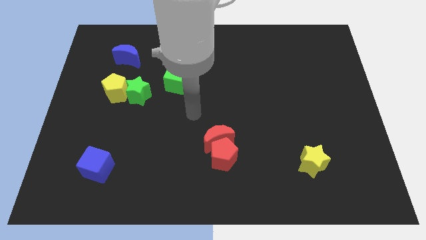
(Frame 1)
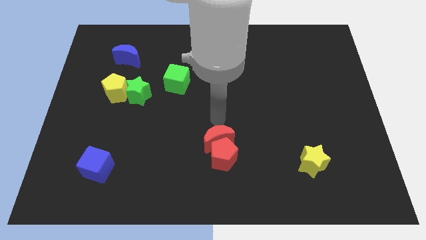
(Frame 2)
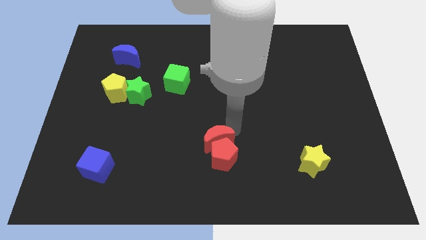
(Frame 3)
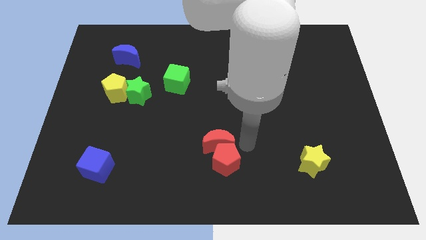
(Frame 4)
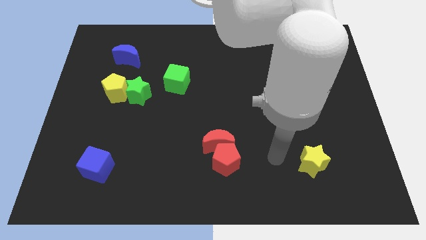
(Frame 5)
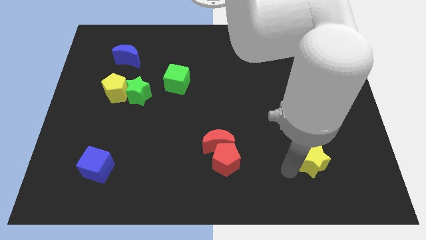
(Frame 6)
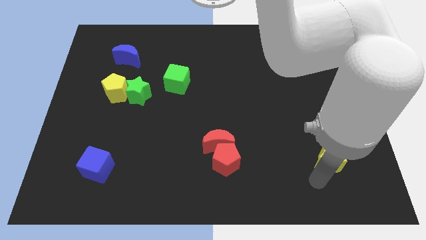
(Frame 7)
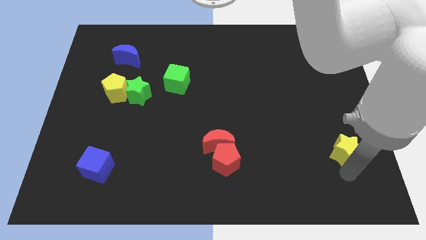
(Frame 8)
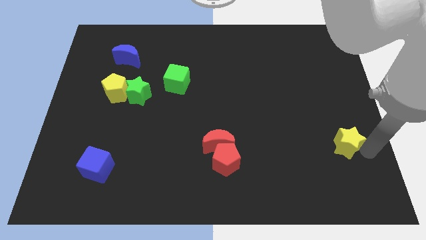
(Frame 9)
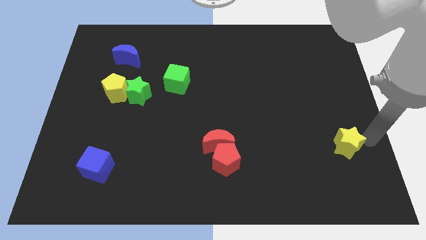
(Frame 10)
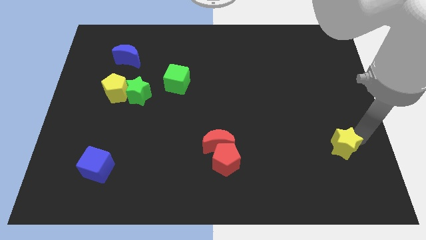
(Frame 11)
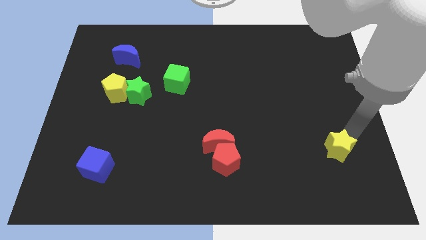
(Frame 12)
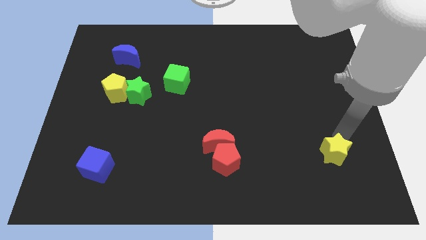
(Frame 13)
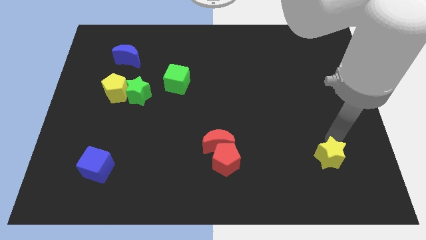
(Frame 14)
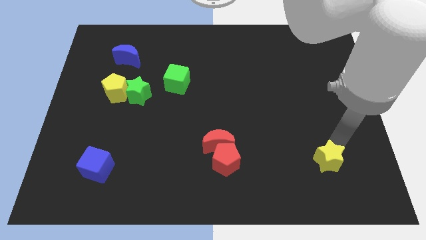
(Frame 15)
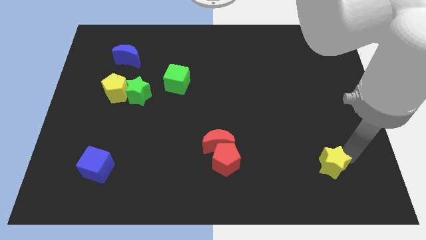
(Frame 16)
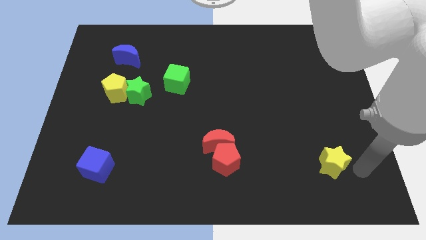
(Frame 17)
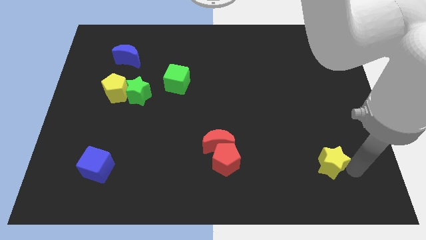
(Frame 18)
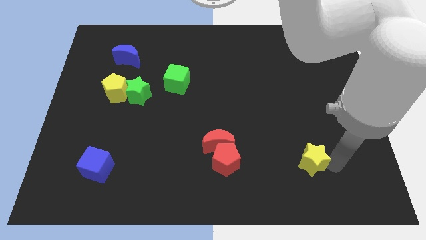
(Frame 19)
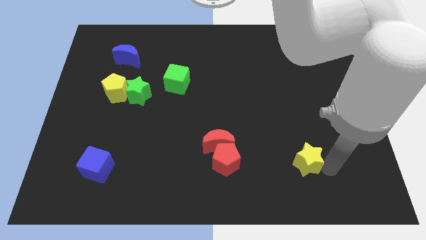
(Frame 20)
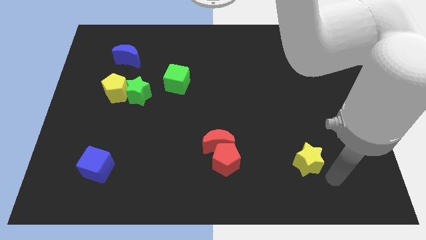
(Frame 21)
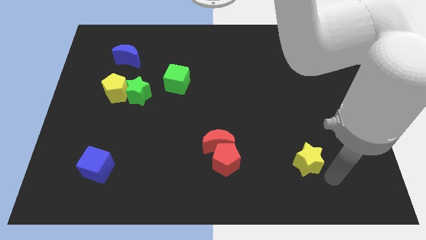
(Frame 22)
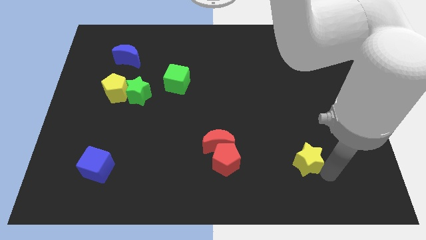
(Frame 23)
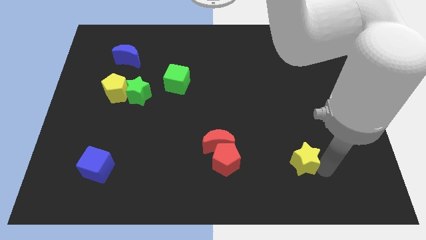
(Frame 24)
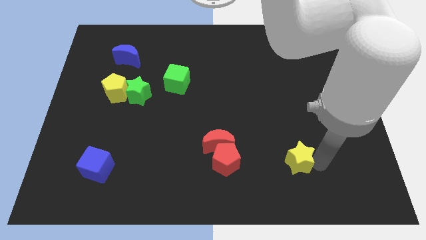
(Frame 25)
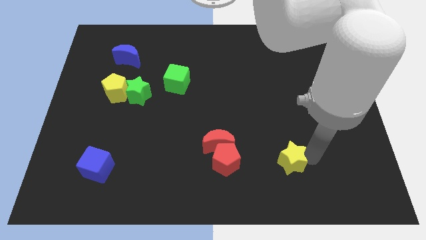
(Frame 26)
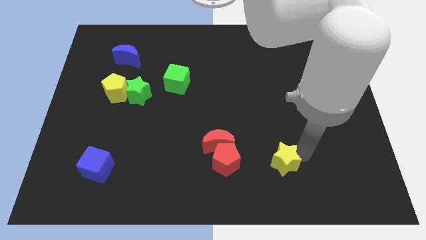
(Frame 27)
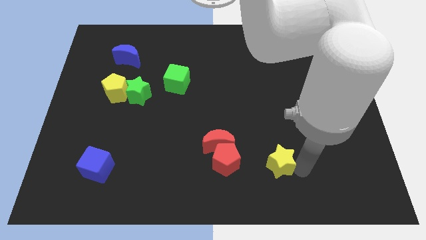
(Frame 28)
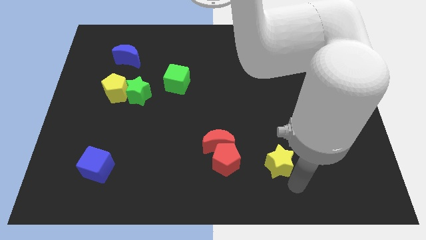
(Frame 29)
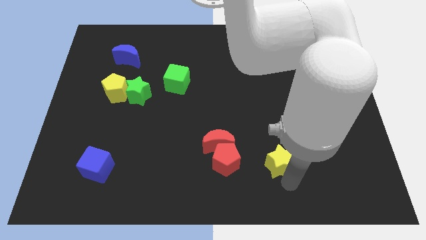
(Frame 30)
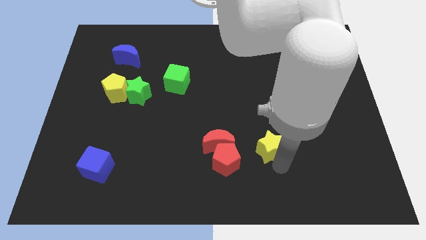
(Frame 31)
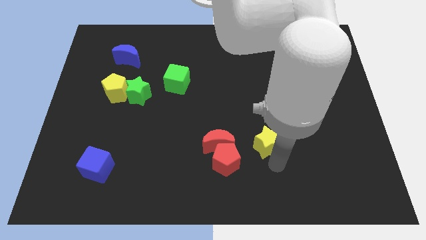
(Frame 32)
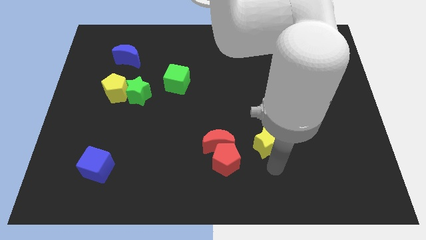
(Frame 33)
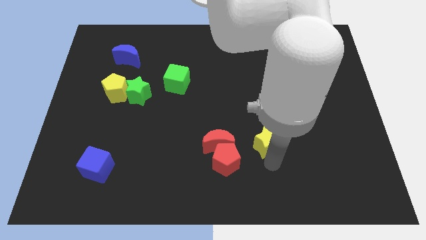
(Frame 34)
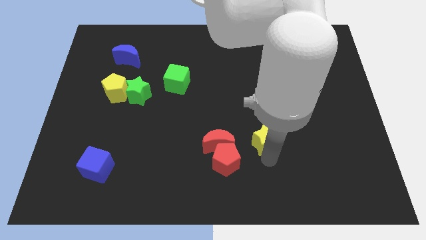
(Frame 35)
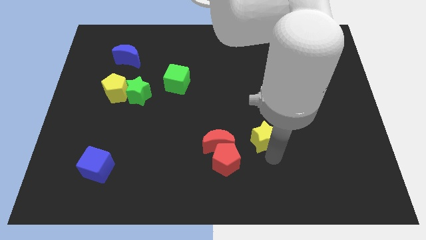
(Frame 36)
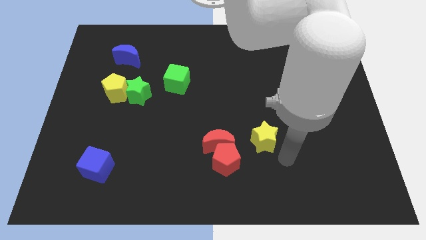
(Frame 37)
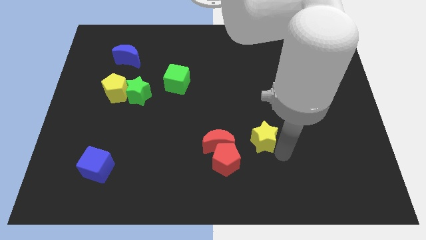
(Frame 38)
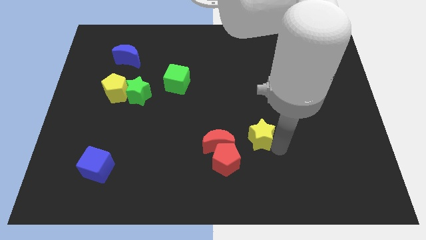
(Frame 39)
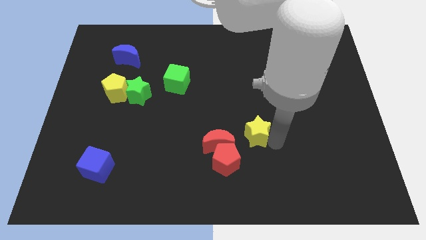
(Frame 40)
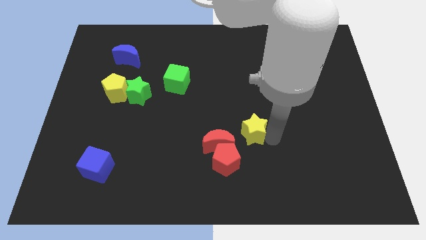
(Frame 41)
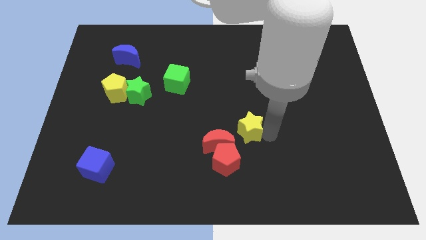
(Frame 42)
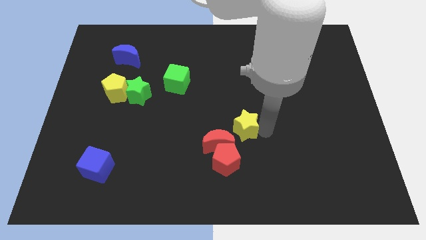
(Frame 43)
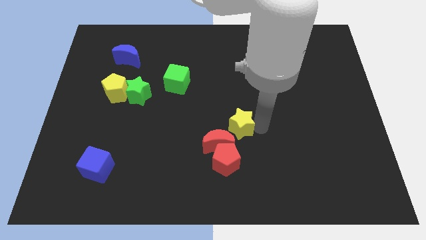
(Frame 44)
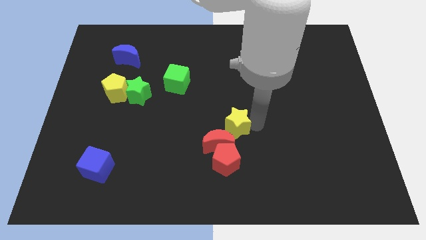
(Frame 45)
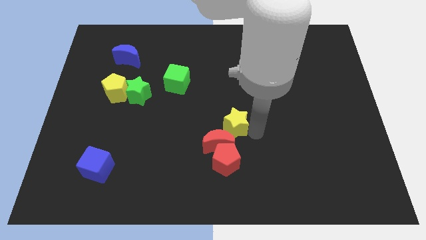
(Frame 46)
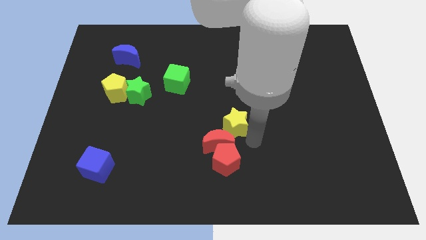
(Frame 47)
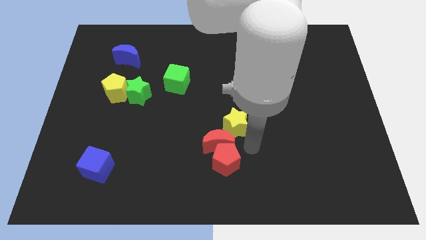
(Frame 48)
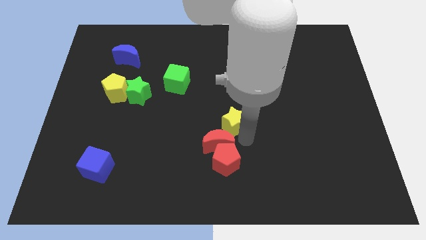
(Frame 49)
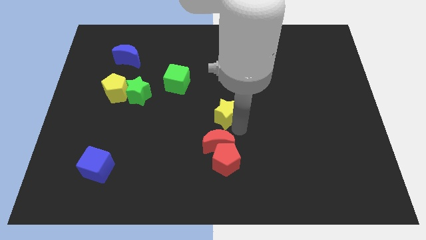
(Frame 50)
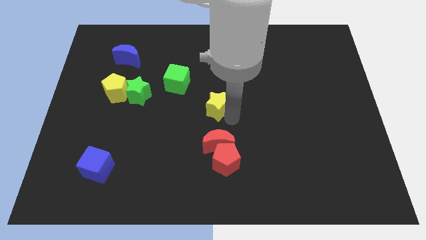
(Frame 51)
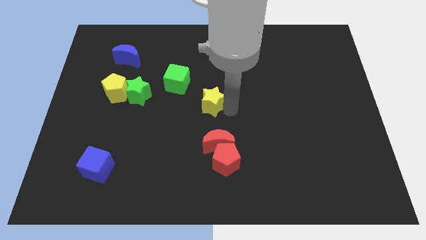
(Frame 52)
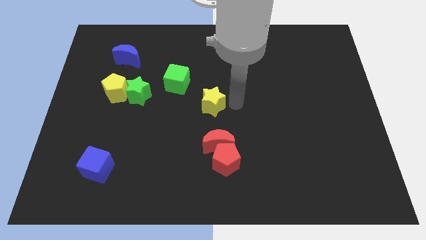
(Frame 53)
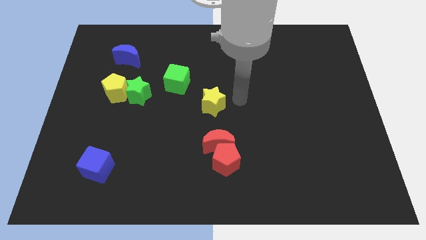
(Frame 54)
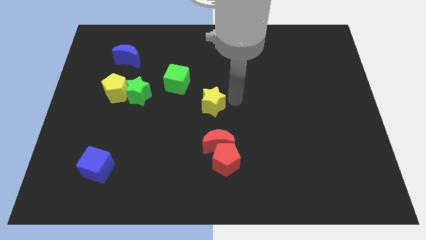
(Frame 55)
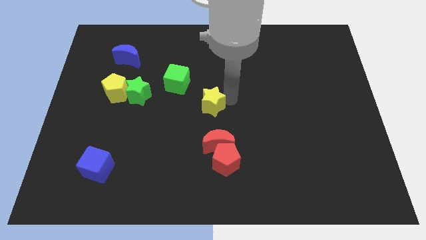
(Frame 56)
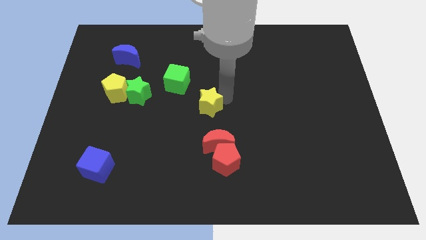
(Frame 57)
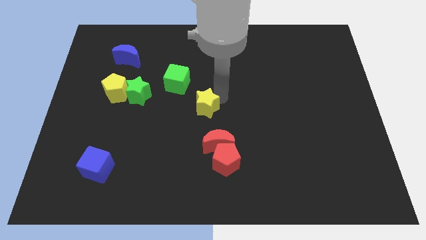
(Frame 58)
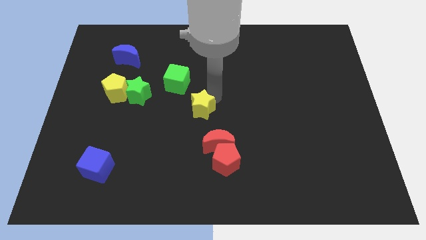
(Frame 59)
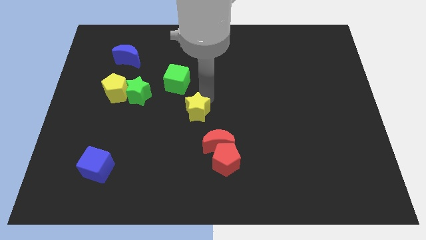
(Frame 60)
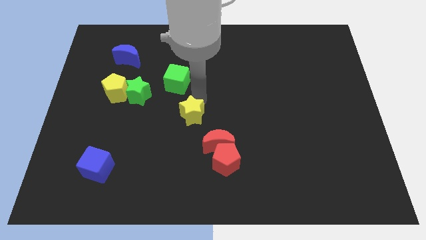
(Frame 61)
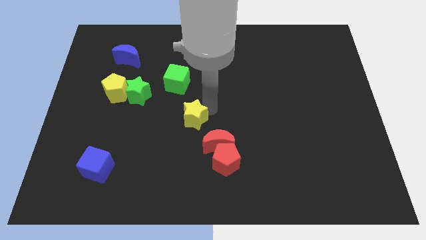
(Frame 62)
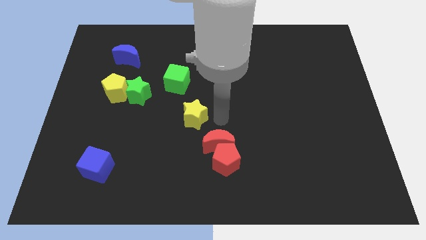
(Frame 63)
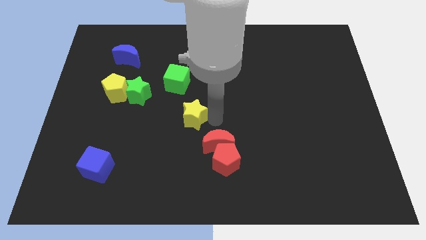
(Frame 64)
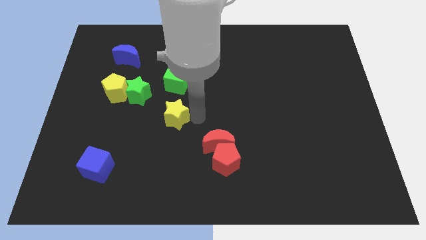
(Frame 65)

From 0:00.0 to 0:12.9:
move the yellow star diagonally down and to the right of the green star

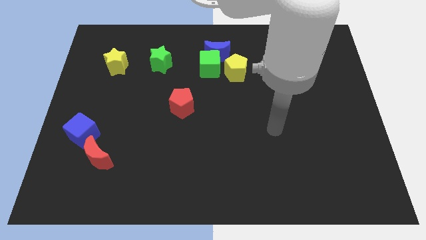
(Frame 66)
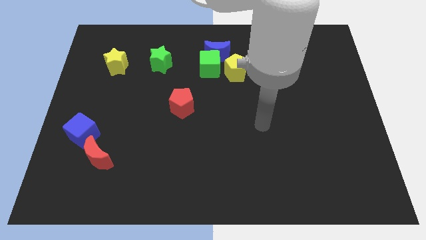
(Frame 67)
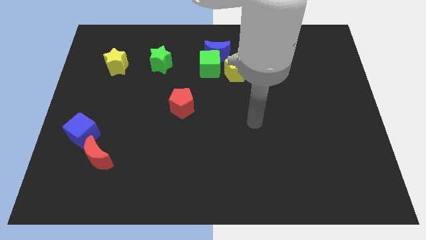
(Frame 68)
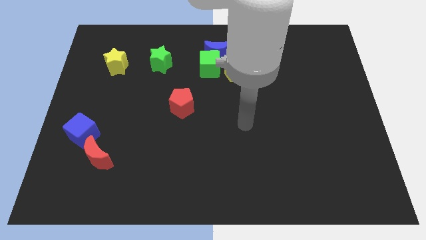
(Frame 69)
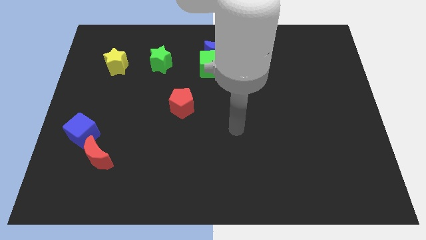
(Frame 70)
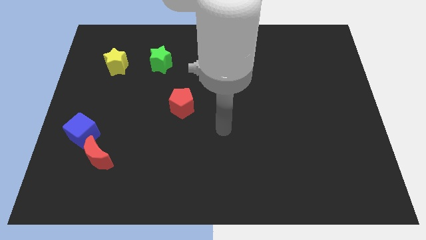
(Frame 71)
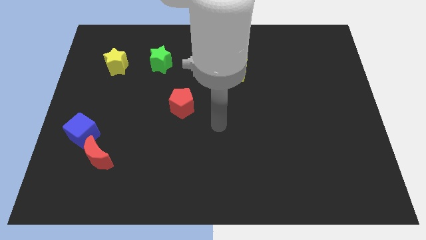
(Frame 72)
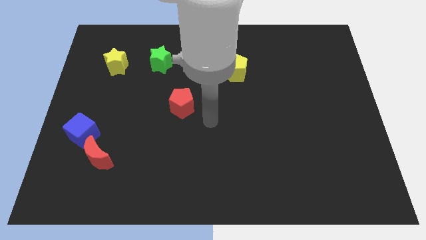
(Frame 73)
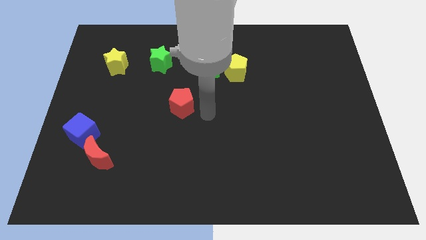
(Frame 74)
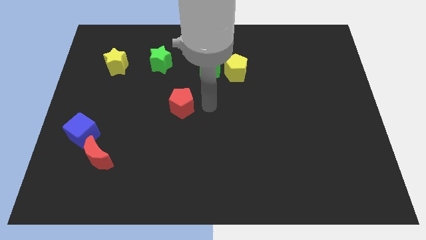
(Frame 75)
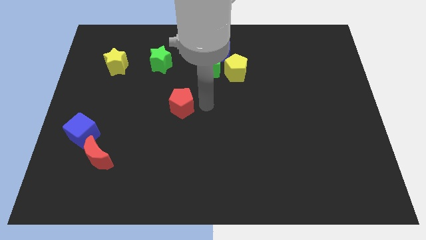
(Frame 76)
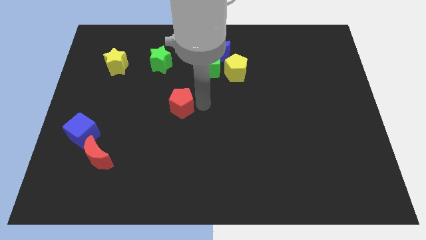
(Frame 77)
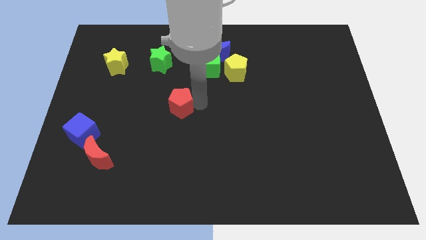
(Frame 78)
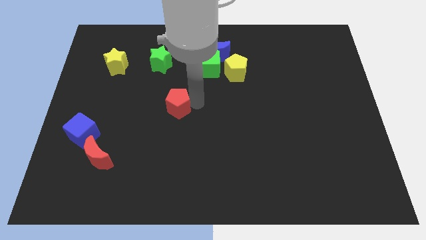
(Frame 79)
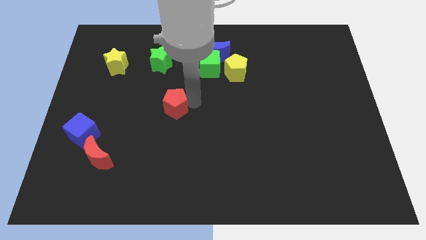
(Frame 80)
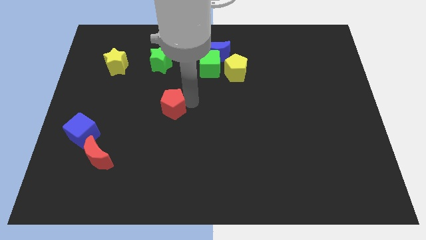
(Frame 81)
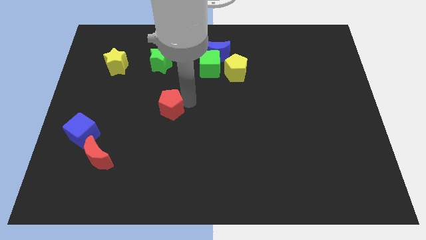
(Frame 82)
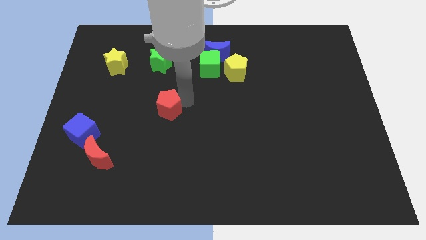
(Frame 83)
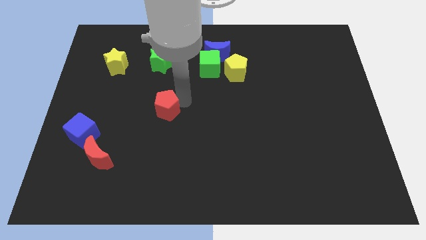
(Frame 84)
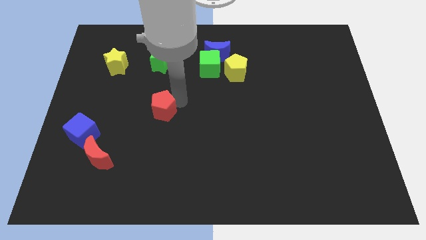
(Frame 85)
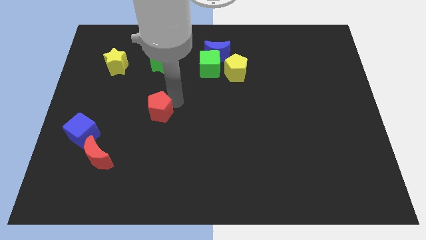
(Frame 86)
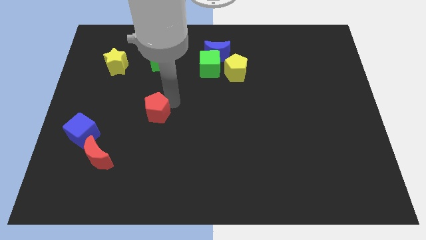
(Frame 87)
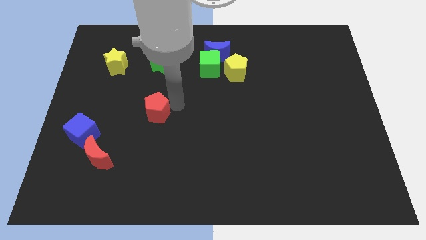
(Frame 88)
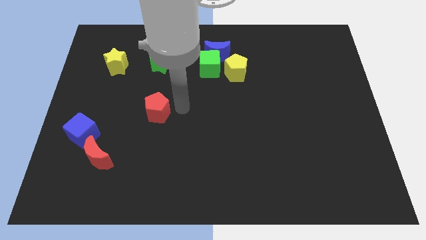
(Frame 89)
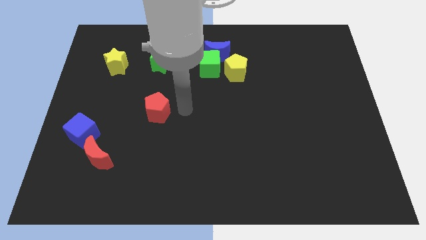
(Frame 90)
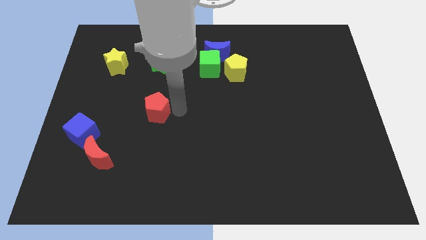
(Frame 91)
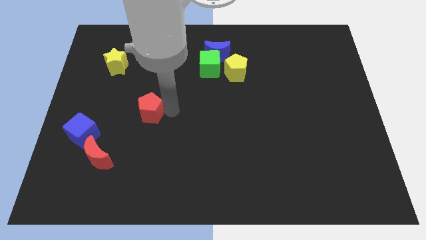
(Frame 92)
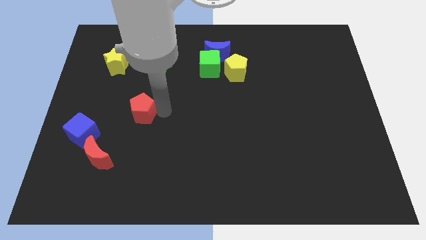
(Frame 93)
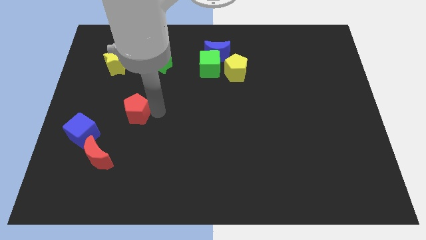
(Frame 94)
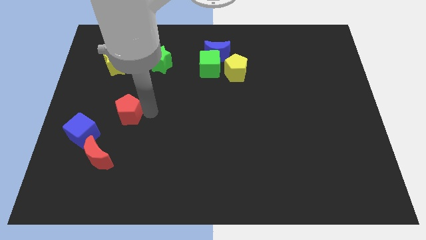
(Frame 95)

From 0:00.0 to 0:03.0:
push the red pentagon to the top side of the red moon
